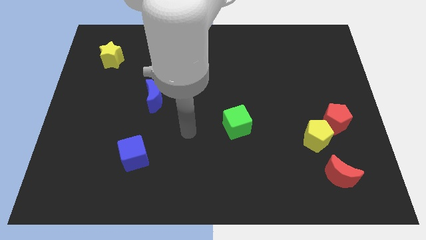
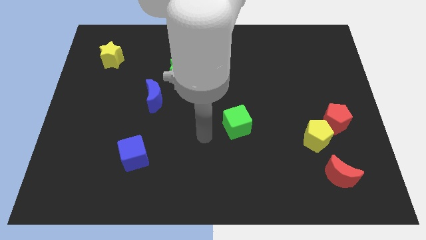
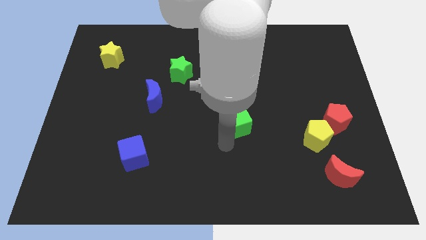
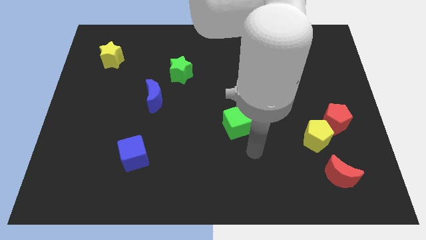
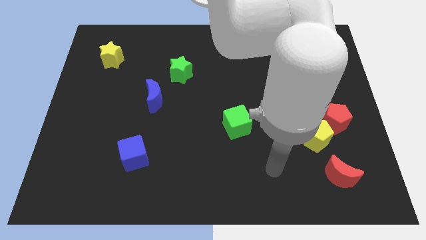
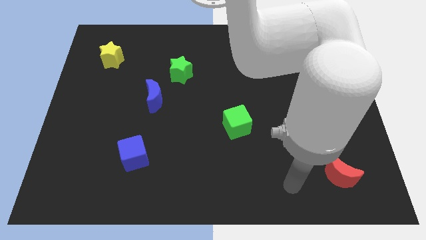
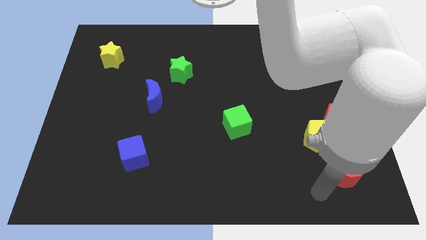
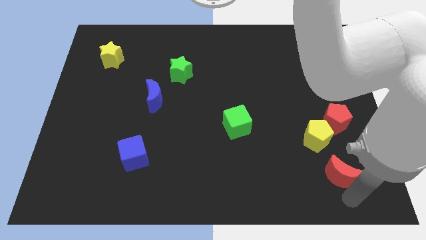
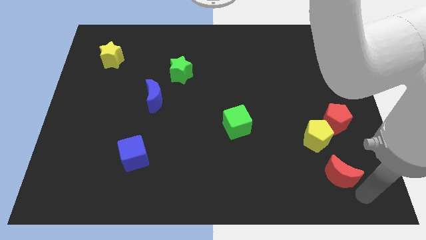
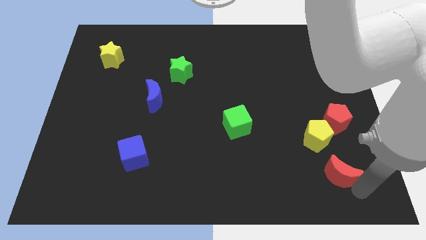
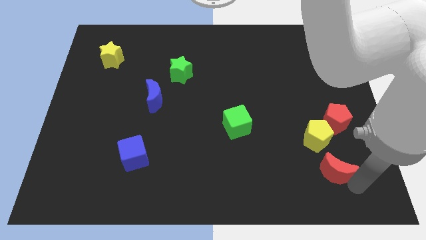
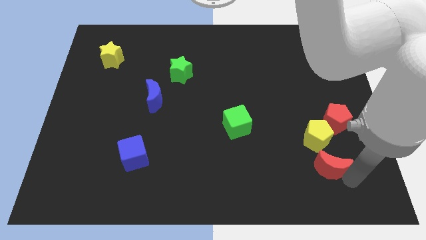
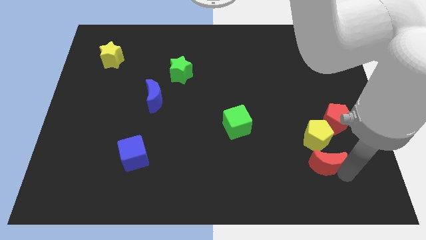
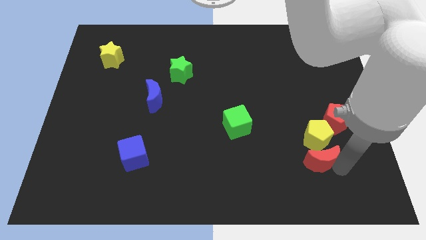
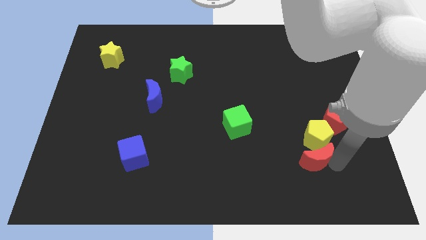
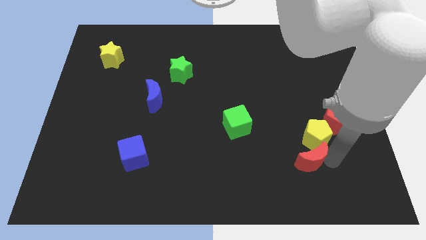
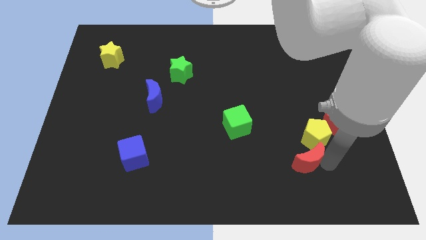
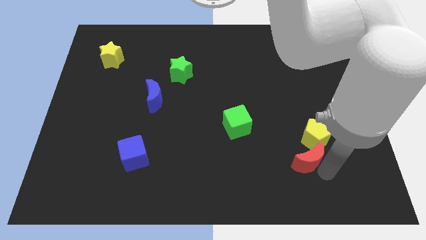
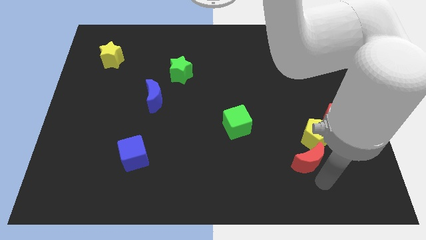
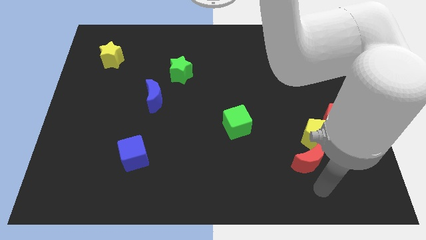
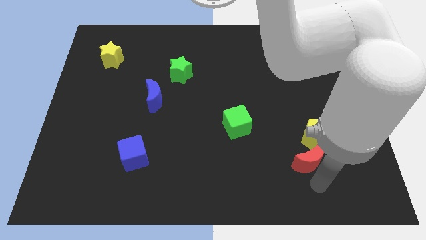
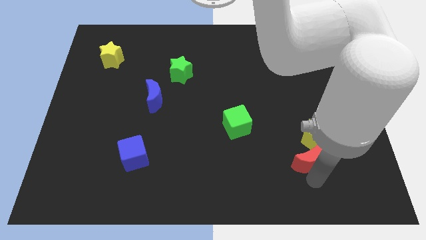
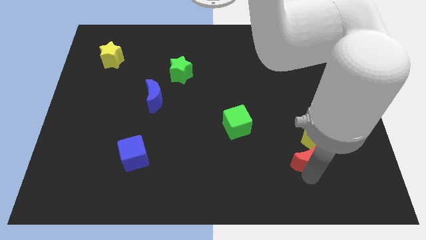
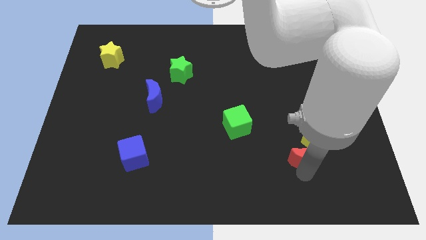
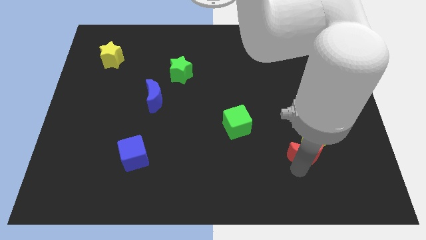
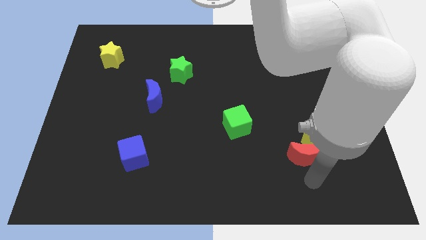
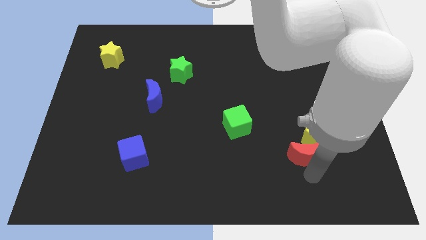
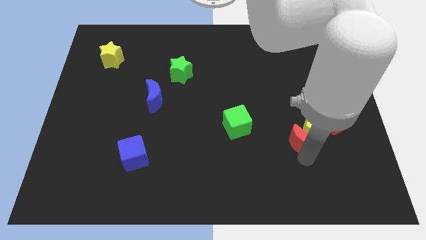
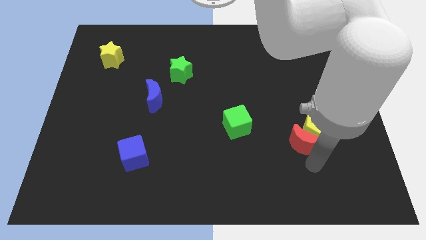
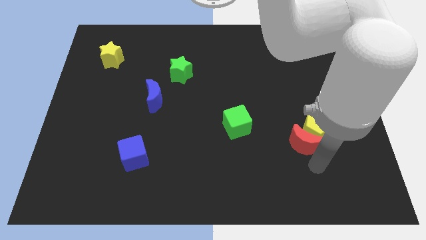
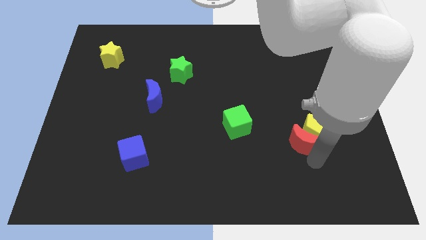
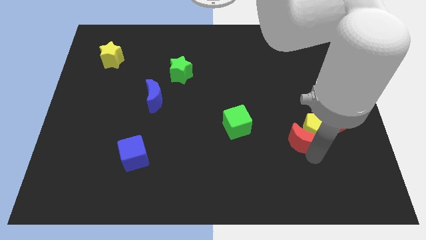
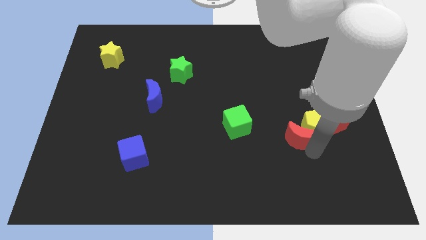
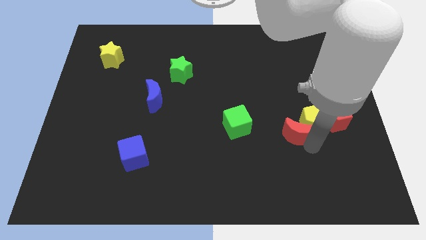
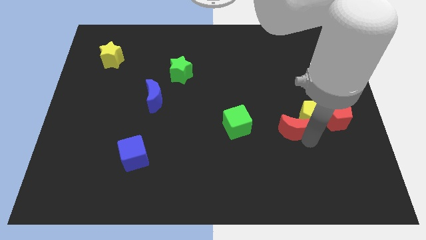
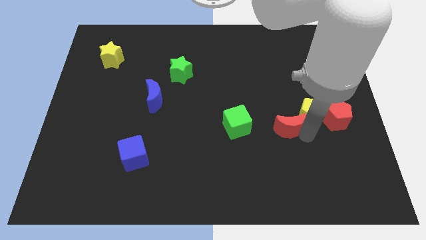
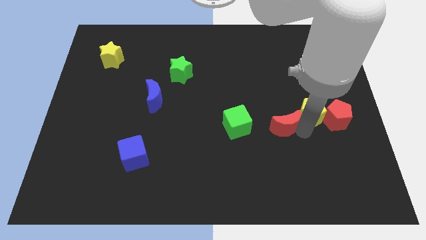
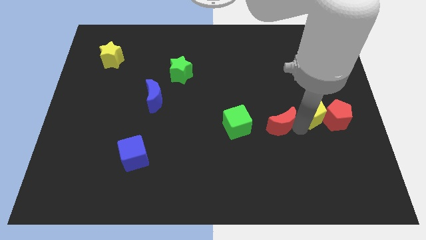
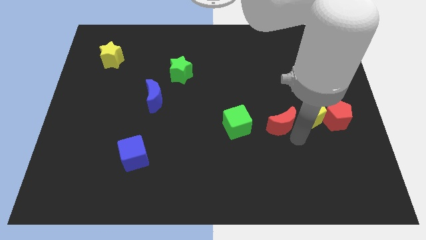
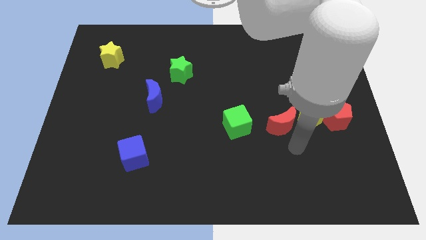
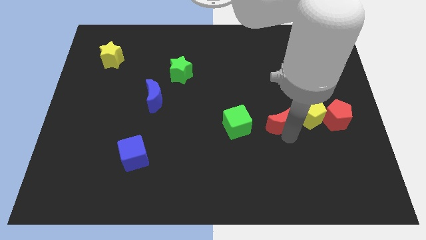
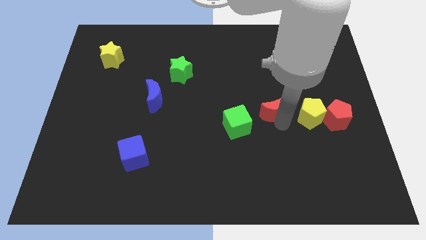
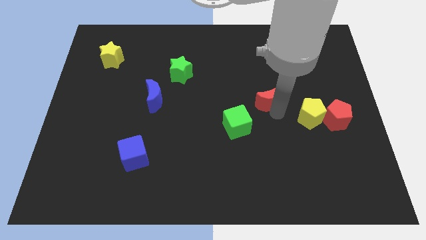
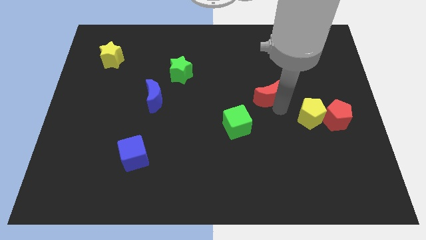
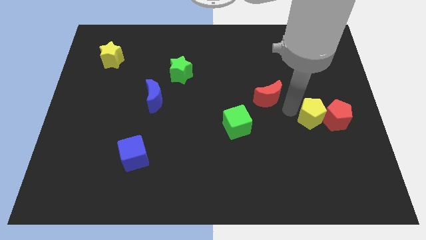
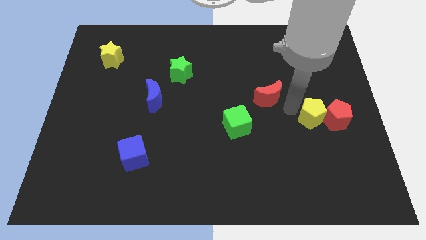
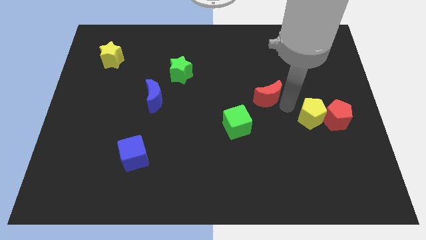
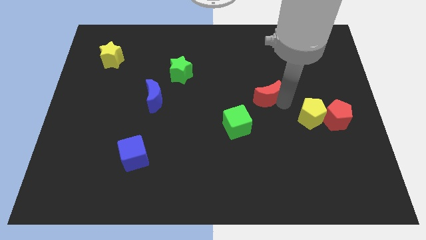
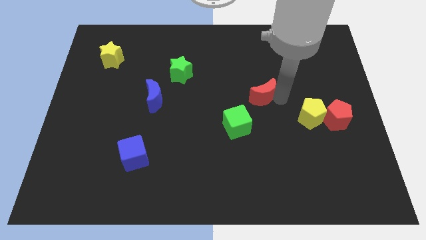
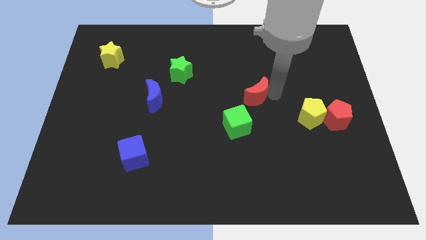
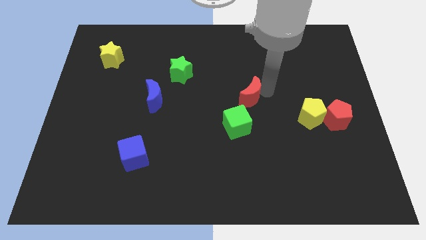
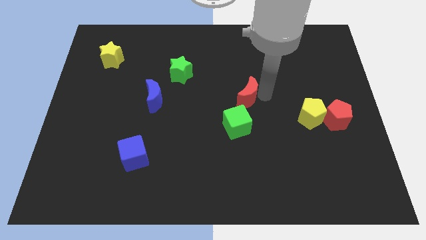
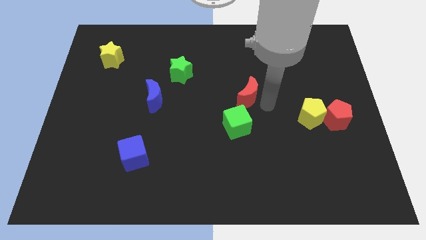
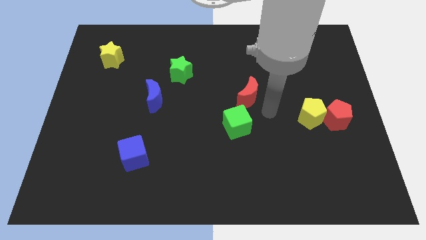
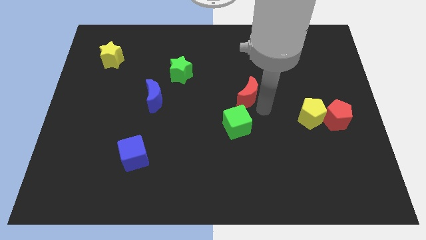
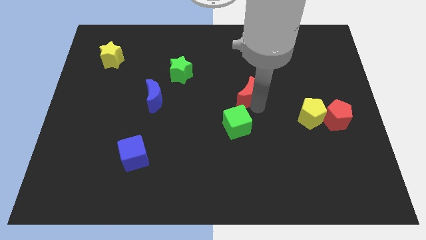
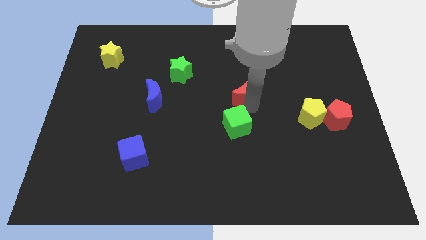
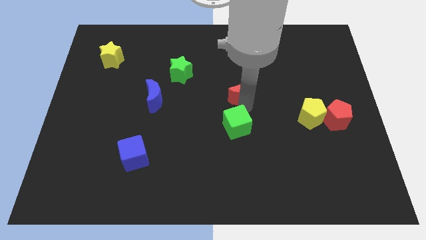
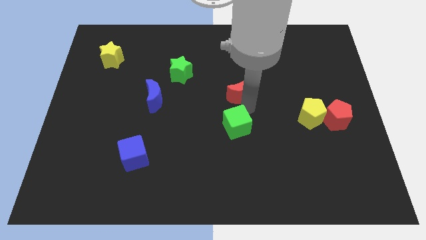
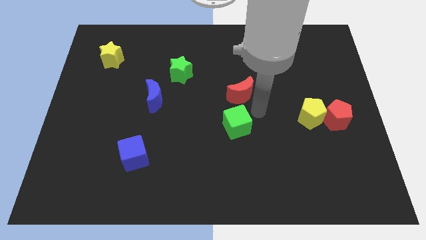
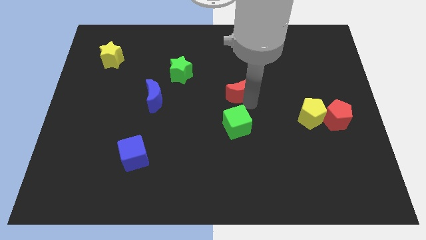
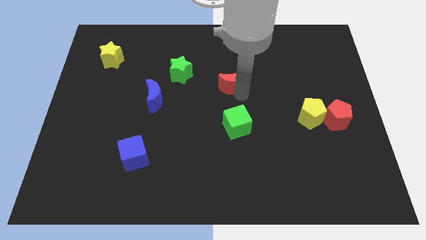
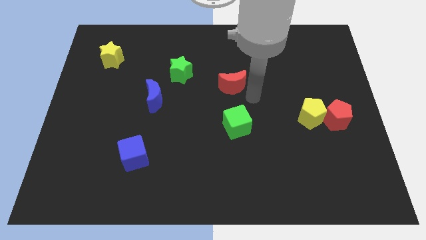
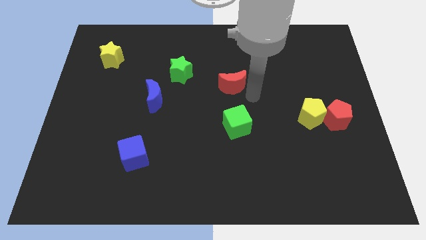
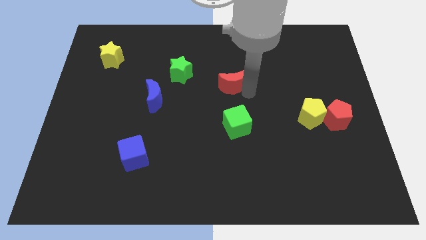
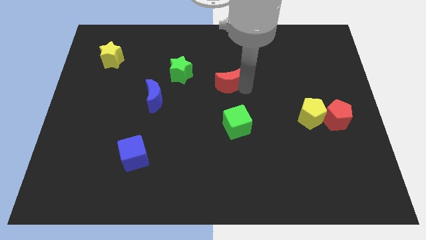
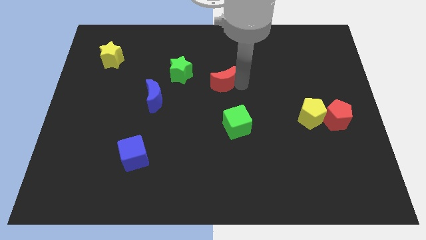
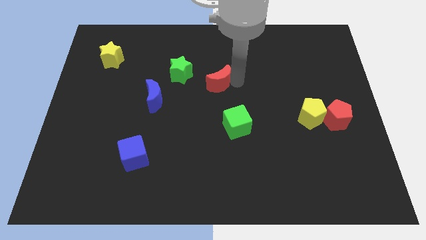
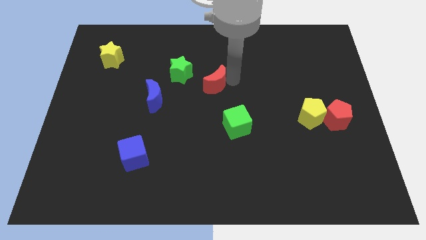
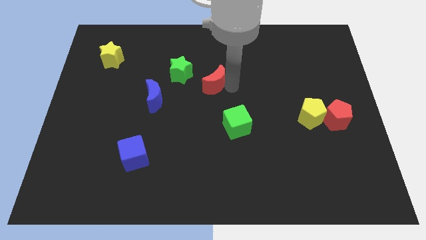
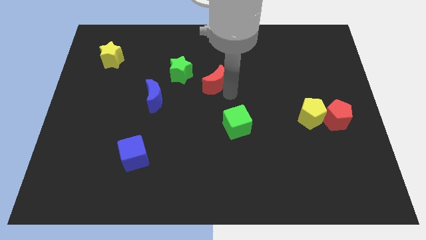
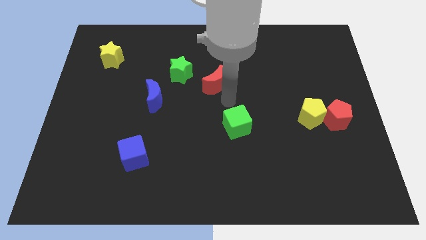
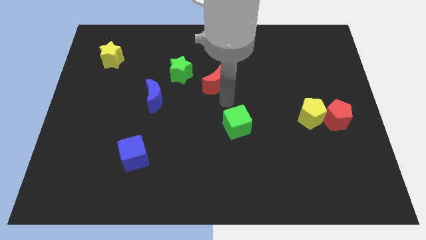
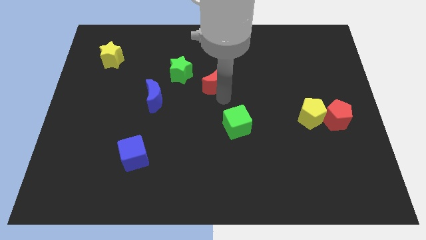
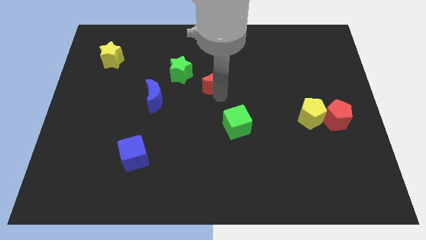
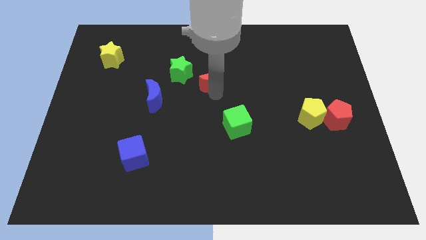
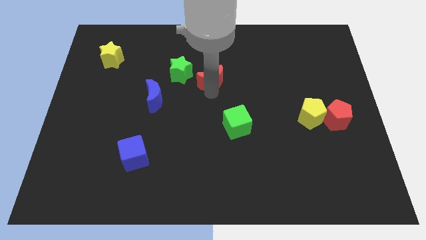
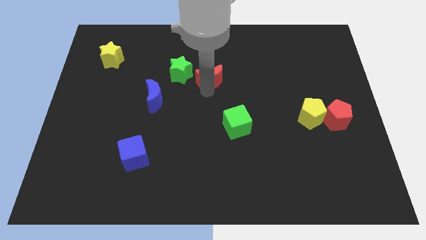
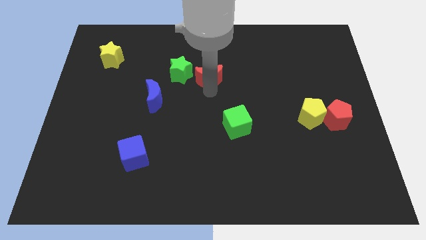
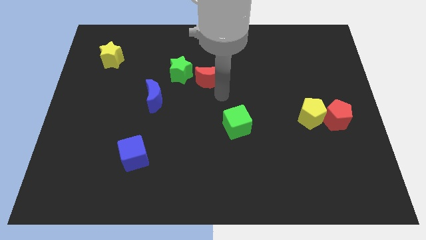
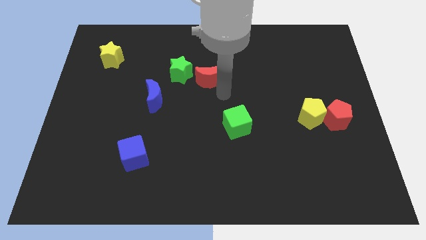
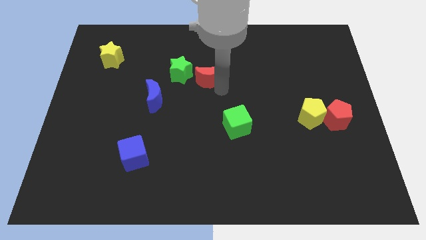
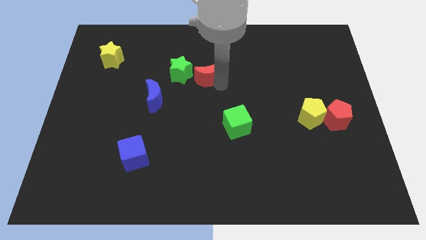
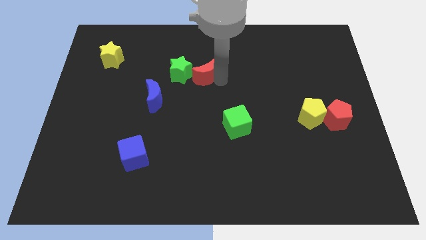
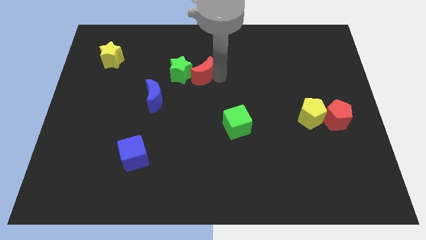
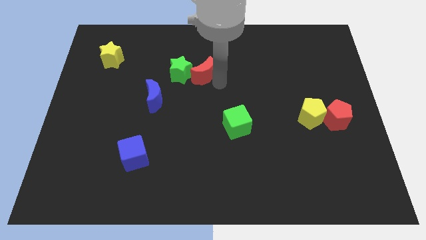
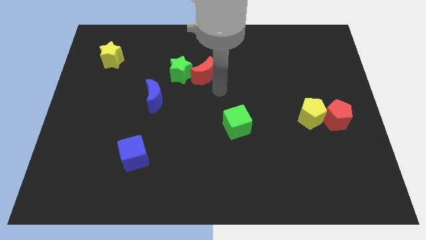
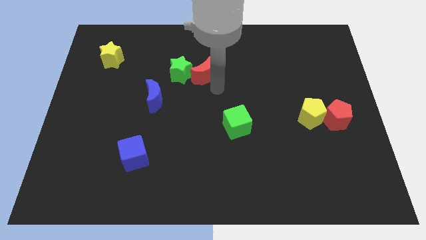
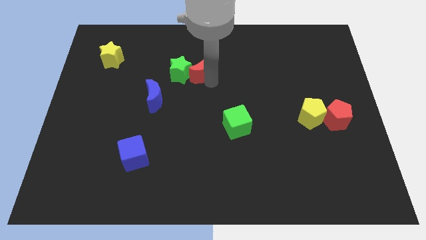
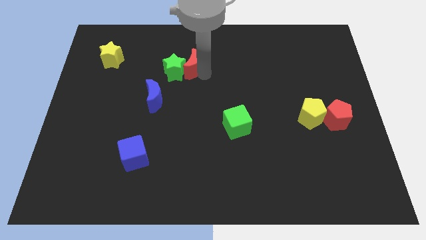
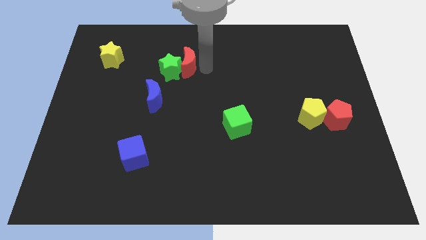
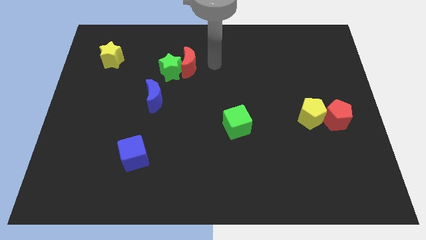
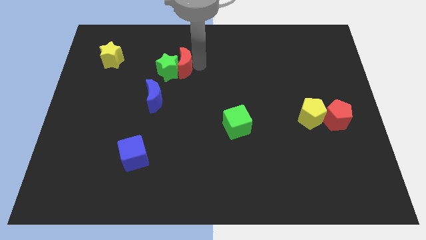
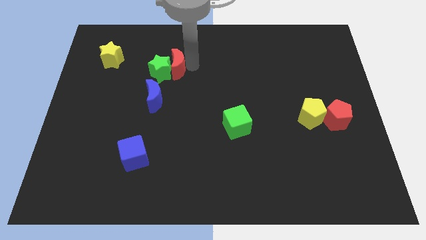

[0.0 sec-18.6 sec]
move the red moon to the top of the blue moon
